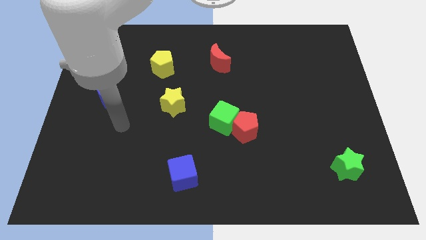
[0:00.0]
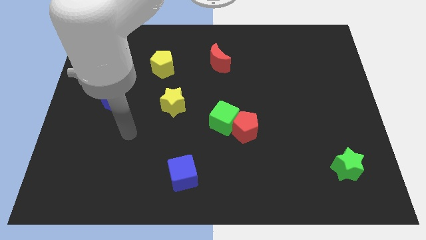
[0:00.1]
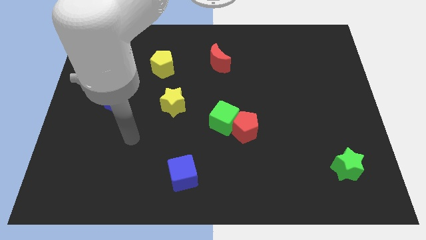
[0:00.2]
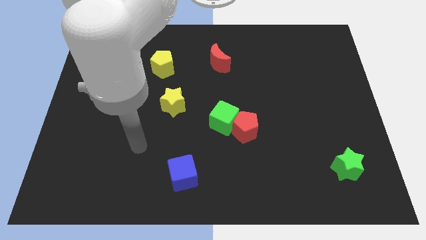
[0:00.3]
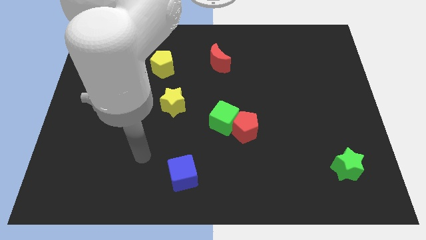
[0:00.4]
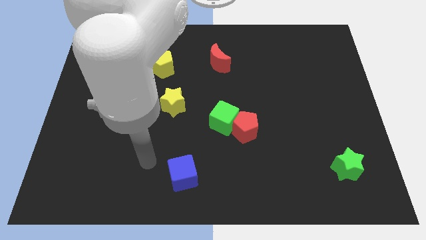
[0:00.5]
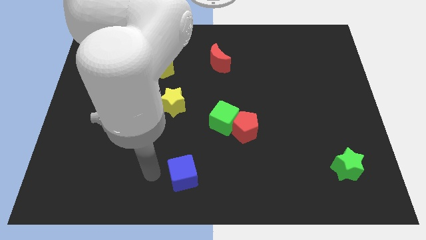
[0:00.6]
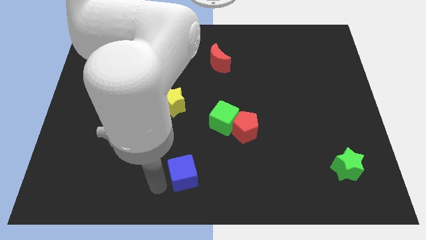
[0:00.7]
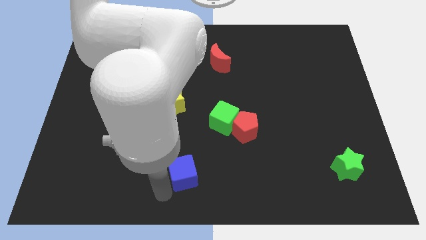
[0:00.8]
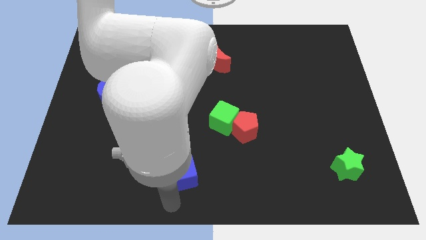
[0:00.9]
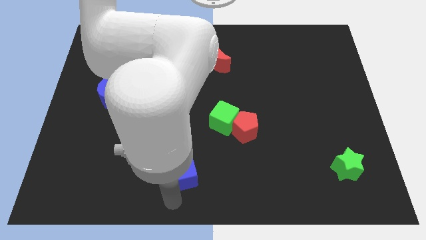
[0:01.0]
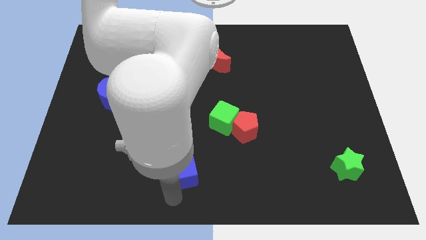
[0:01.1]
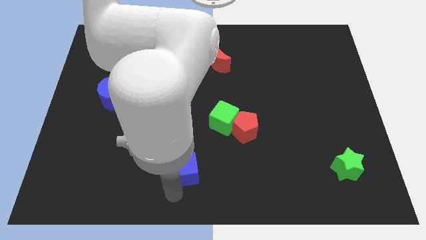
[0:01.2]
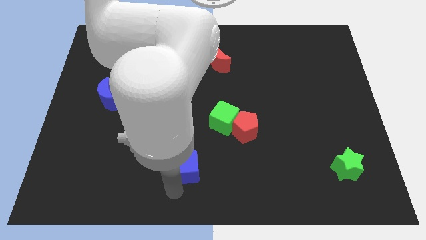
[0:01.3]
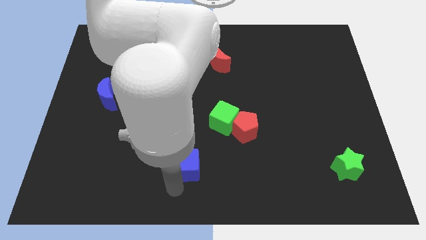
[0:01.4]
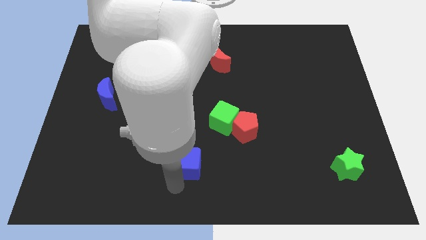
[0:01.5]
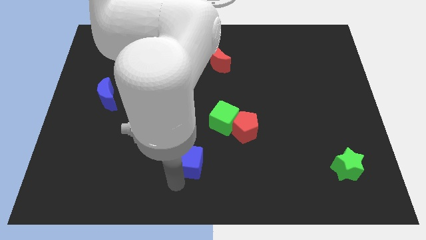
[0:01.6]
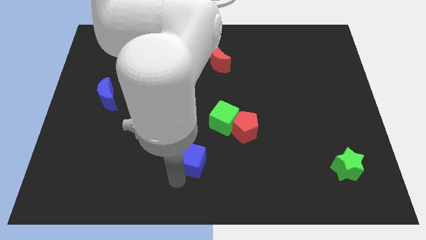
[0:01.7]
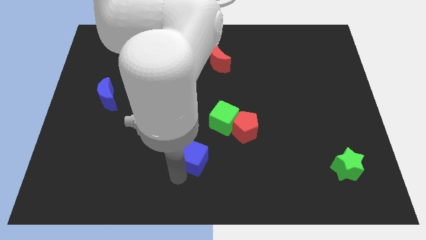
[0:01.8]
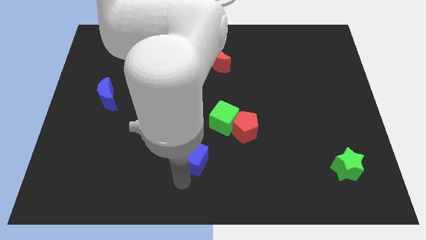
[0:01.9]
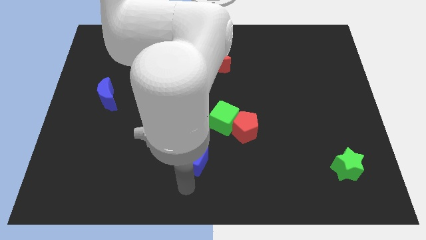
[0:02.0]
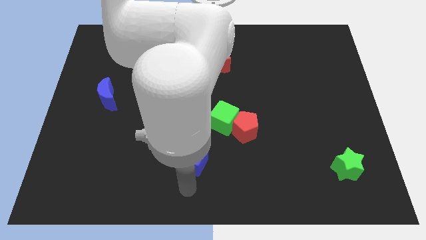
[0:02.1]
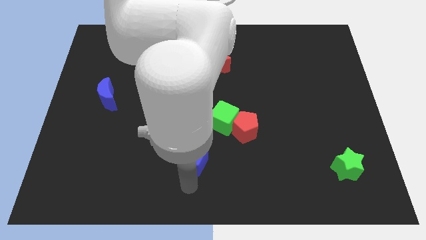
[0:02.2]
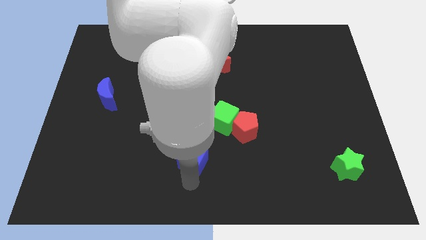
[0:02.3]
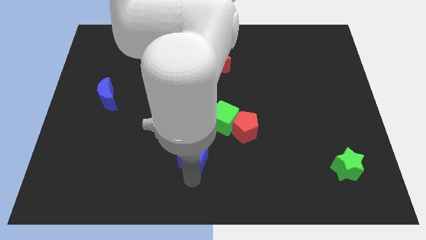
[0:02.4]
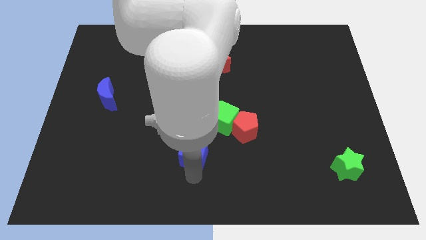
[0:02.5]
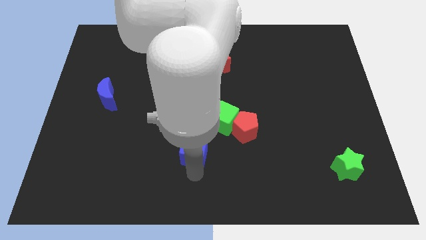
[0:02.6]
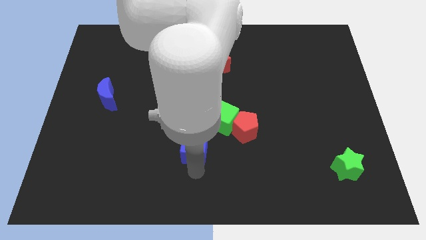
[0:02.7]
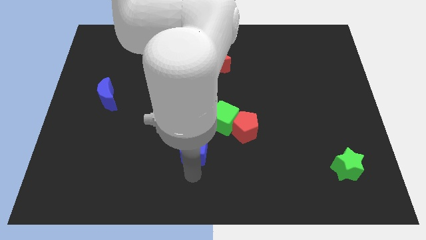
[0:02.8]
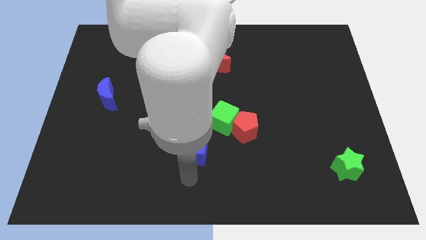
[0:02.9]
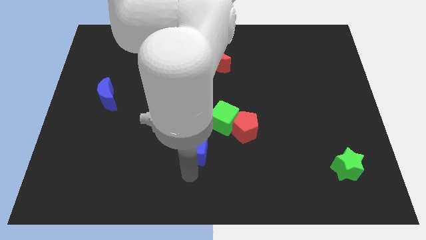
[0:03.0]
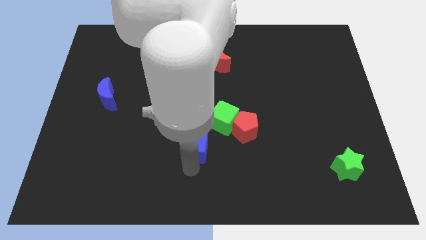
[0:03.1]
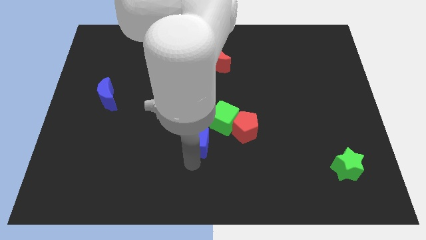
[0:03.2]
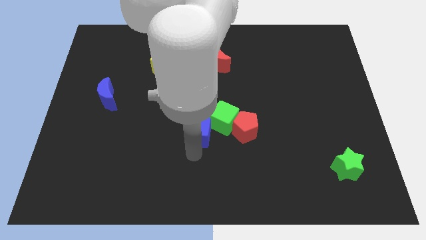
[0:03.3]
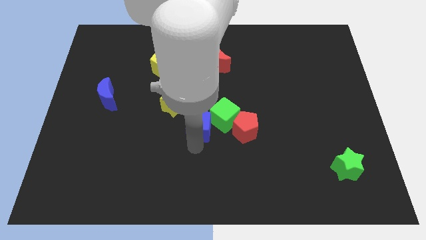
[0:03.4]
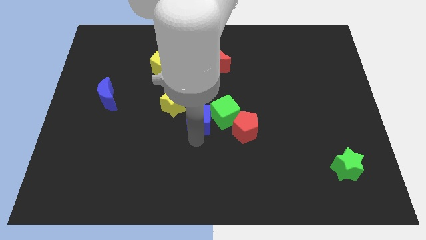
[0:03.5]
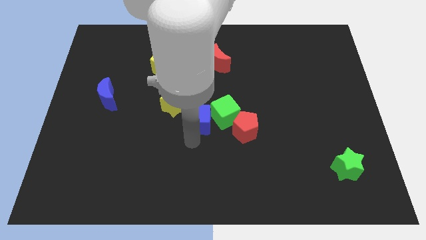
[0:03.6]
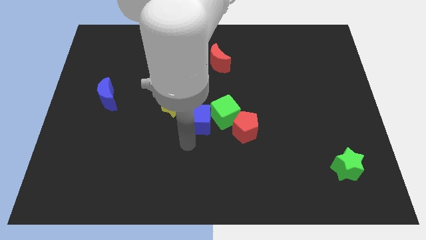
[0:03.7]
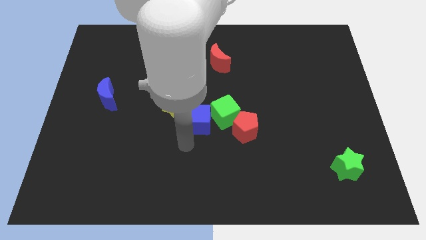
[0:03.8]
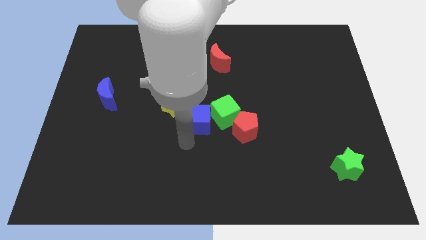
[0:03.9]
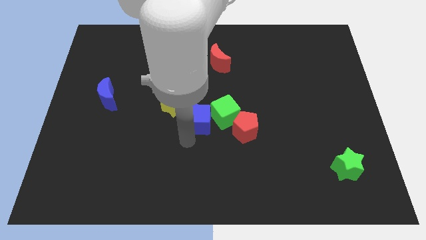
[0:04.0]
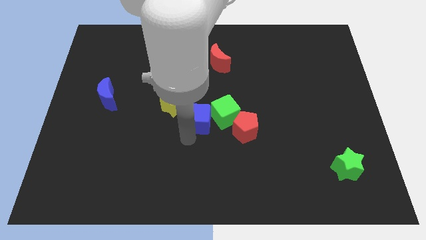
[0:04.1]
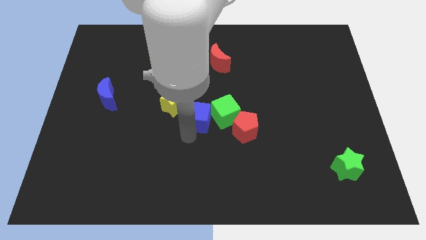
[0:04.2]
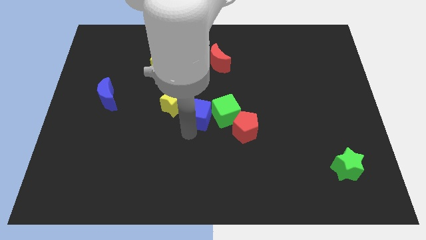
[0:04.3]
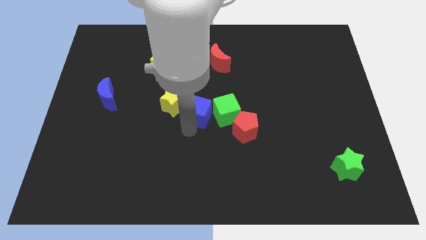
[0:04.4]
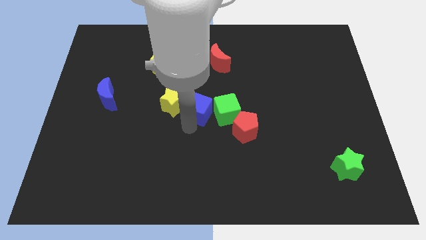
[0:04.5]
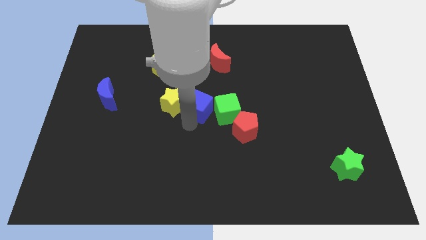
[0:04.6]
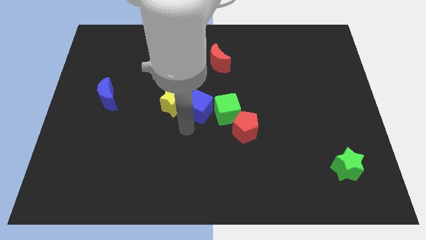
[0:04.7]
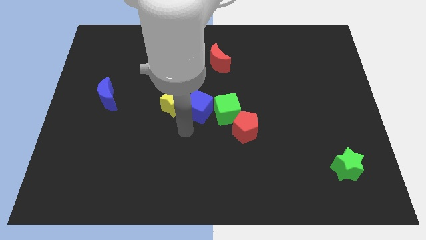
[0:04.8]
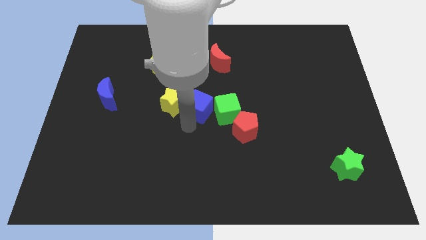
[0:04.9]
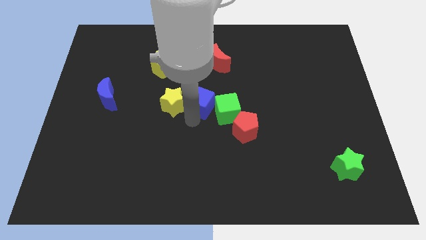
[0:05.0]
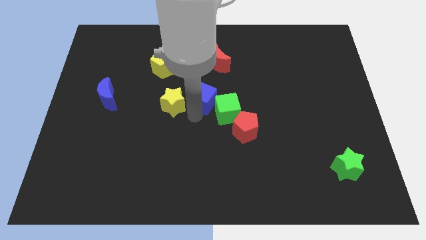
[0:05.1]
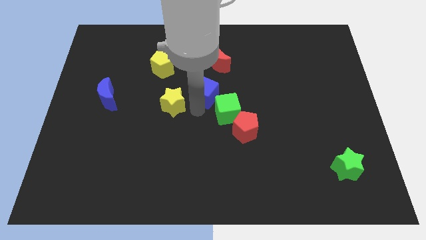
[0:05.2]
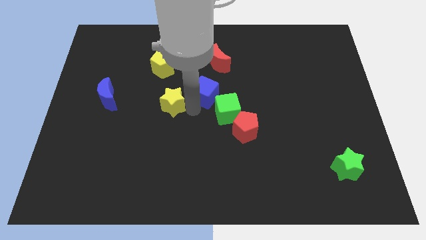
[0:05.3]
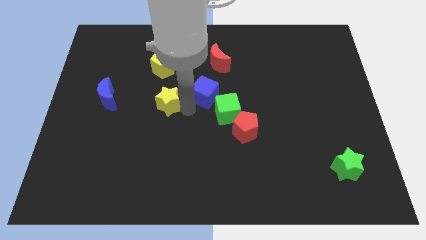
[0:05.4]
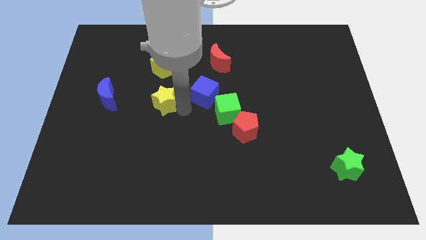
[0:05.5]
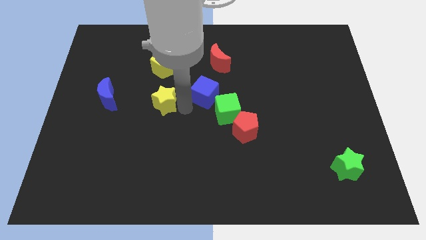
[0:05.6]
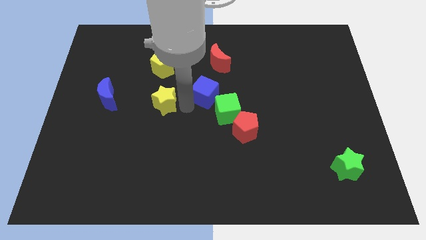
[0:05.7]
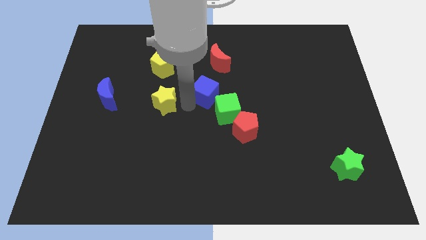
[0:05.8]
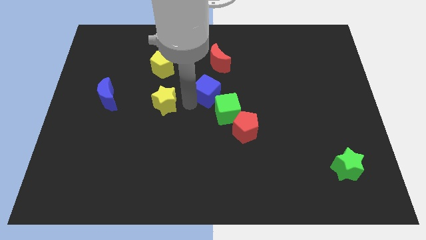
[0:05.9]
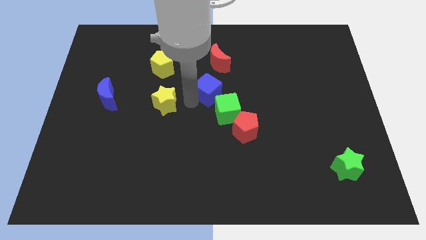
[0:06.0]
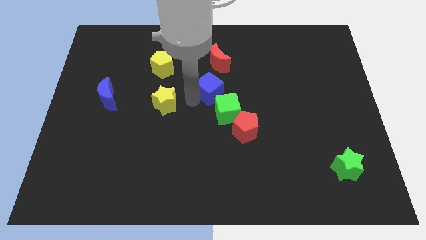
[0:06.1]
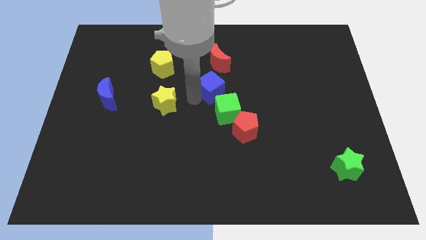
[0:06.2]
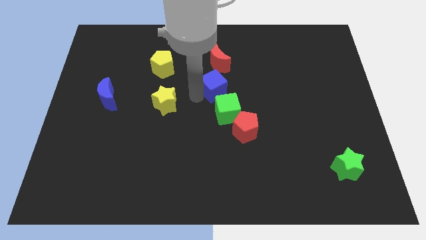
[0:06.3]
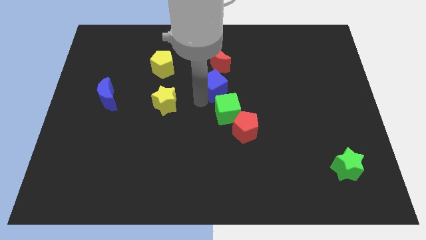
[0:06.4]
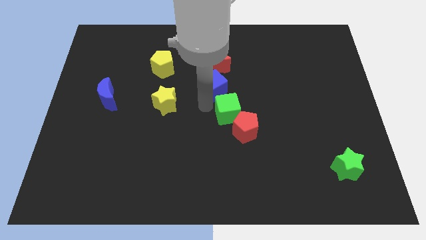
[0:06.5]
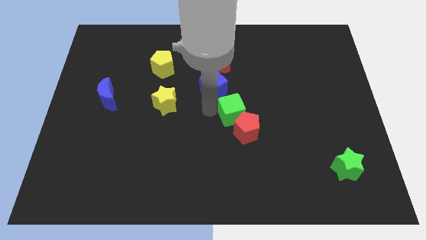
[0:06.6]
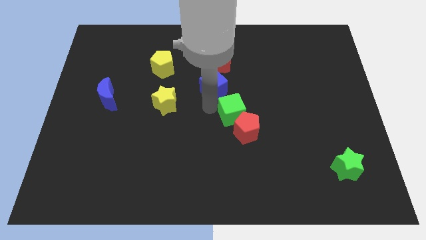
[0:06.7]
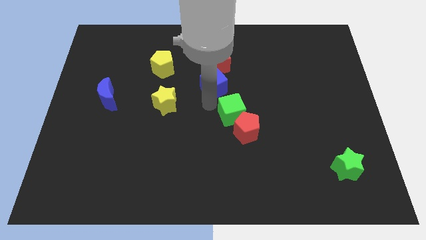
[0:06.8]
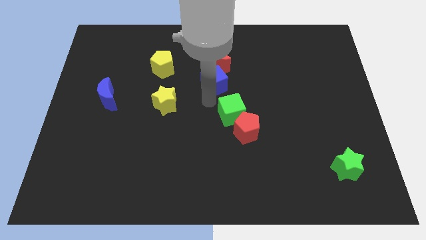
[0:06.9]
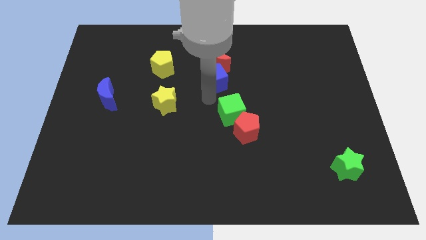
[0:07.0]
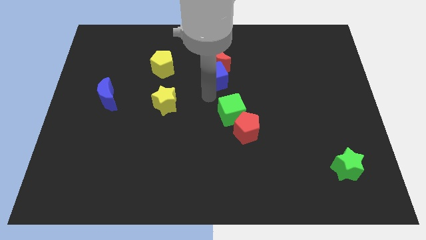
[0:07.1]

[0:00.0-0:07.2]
move the blue cube close to the red moon

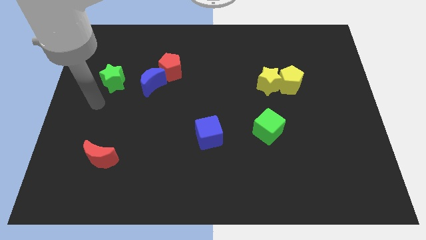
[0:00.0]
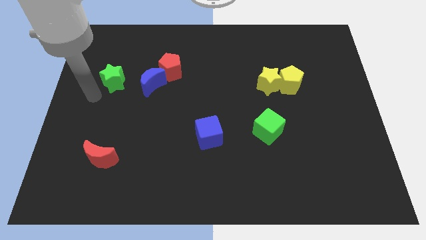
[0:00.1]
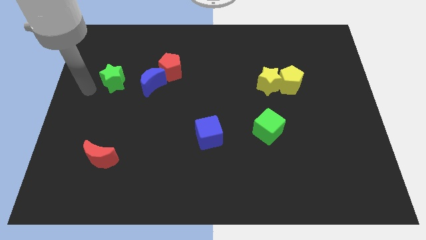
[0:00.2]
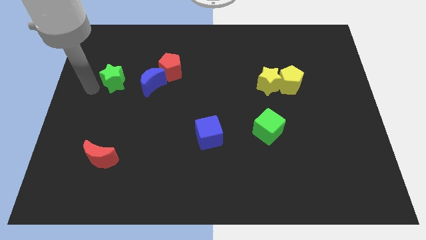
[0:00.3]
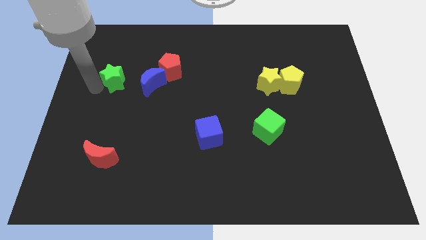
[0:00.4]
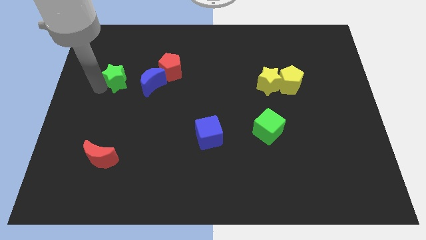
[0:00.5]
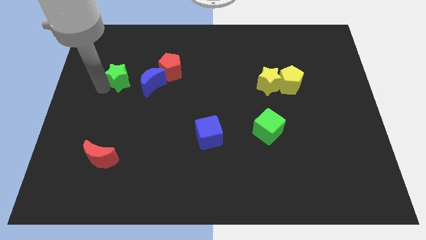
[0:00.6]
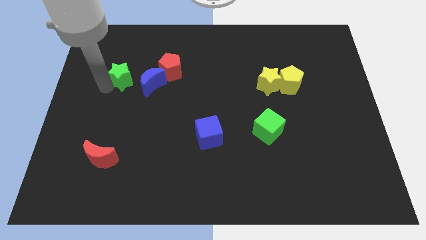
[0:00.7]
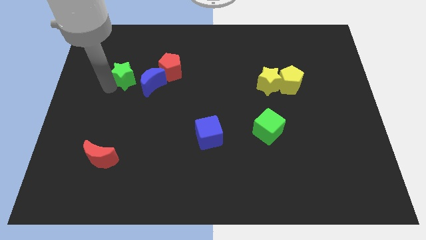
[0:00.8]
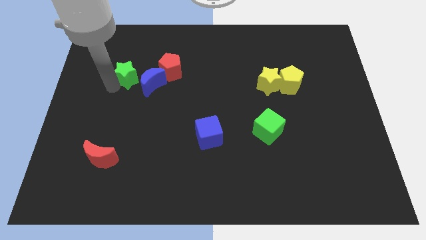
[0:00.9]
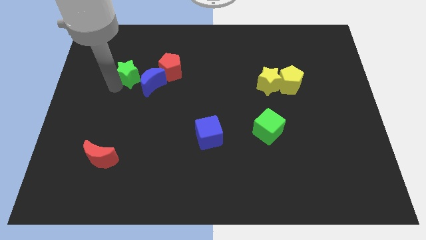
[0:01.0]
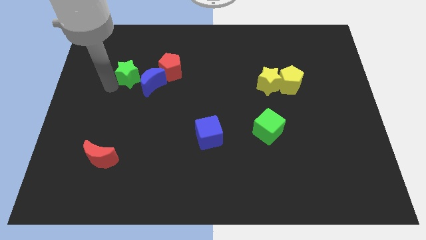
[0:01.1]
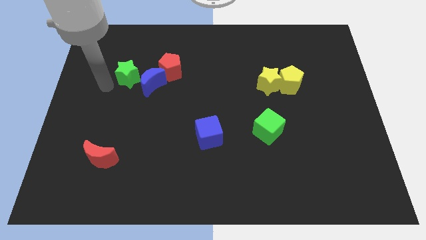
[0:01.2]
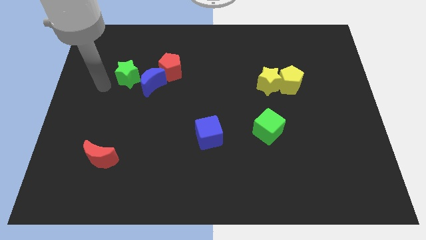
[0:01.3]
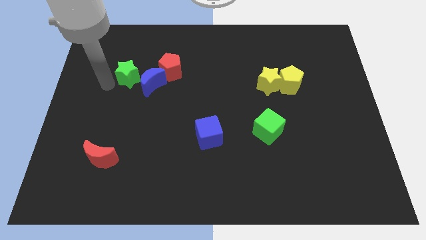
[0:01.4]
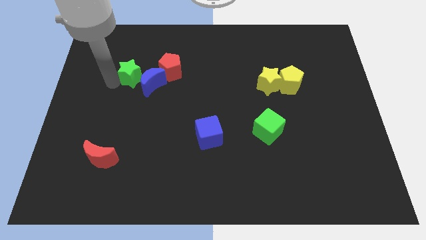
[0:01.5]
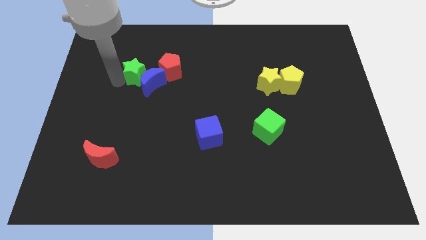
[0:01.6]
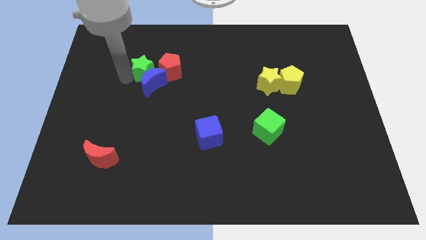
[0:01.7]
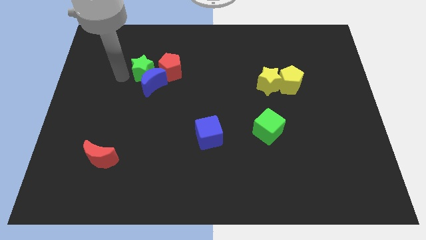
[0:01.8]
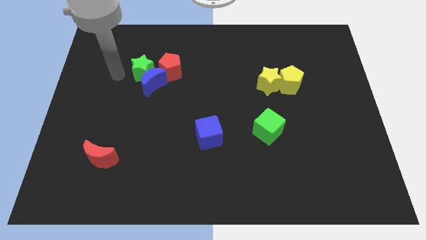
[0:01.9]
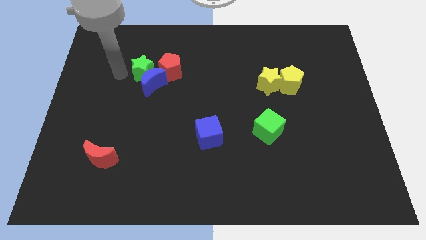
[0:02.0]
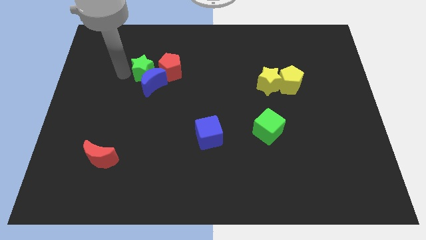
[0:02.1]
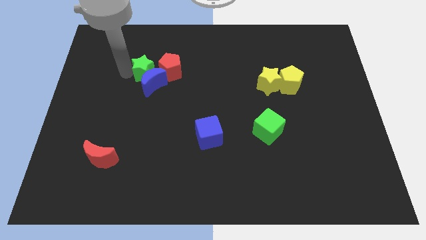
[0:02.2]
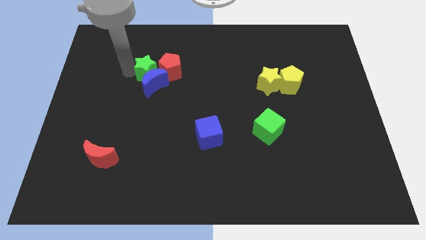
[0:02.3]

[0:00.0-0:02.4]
slide the green star close to the red pentagon
